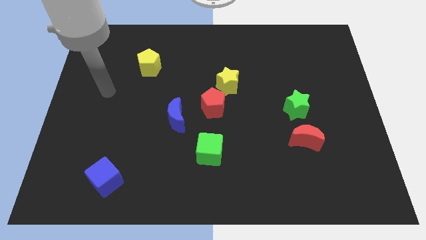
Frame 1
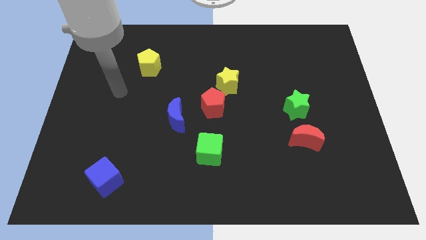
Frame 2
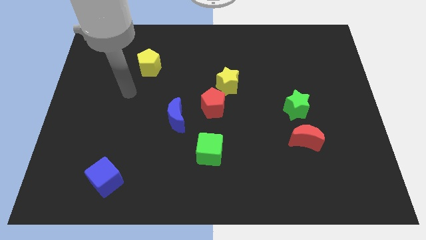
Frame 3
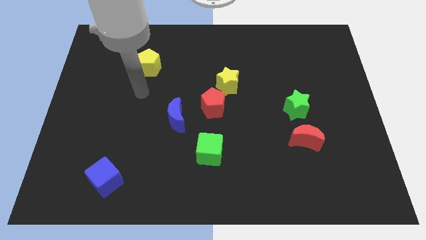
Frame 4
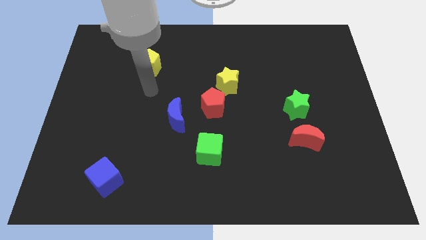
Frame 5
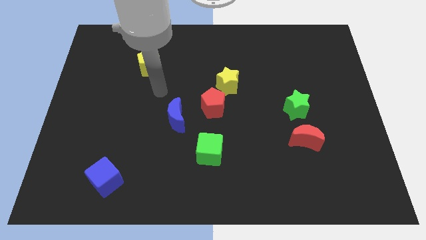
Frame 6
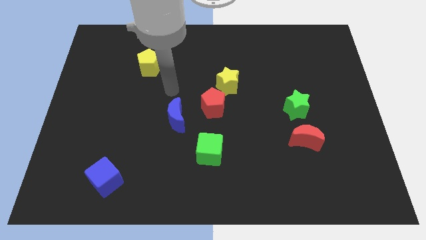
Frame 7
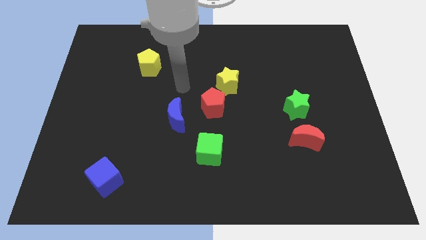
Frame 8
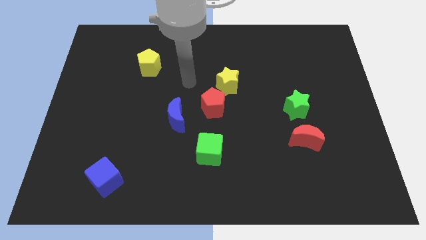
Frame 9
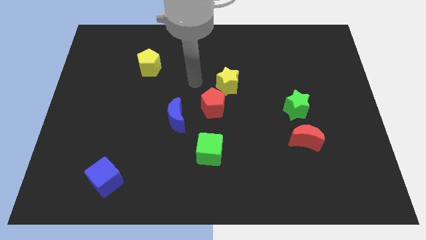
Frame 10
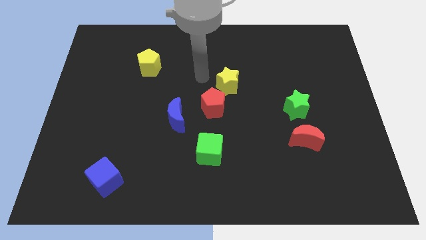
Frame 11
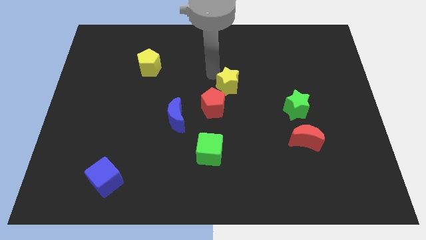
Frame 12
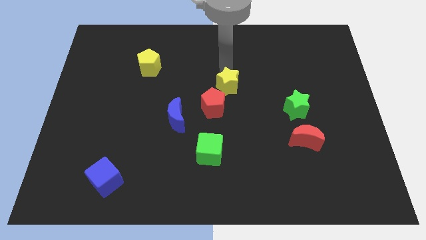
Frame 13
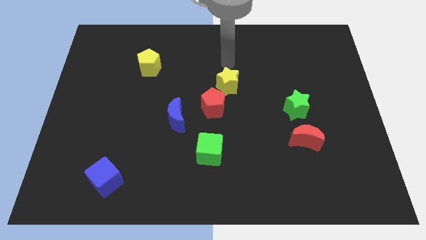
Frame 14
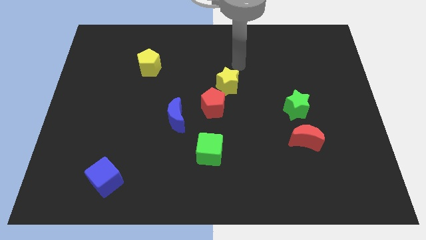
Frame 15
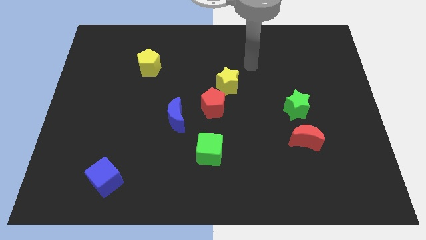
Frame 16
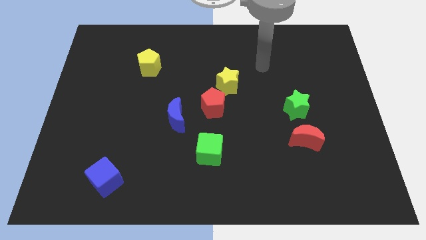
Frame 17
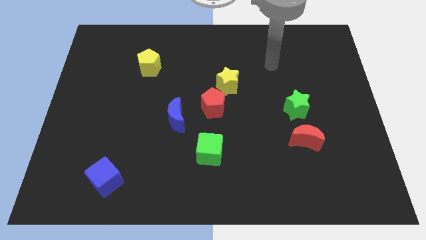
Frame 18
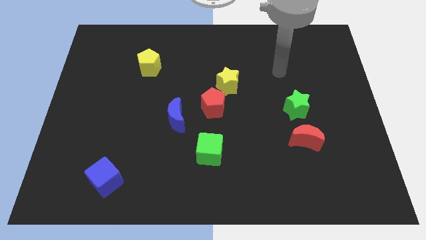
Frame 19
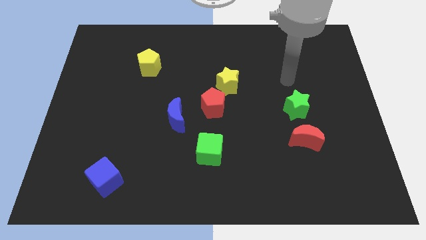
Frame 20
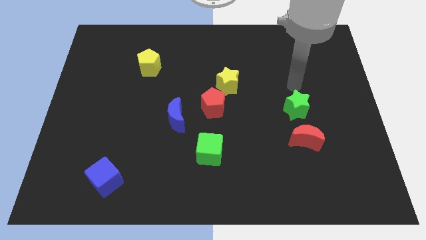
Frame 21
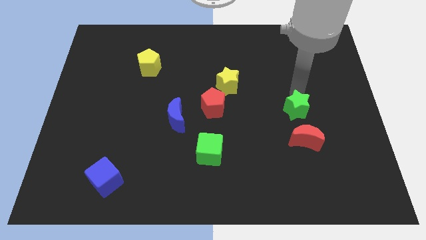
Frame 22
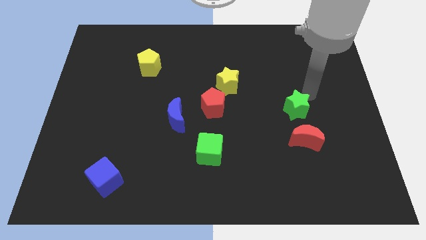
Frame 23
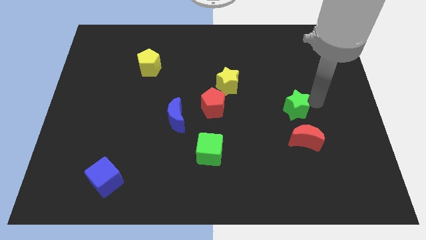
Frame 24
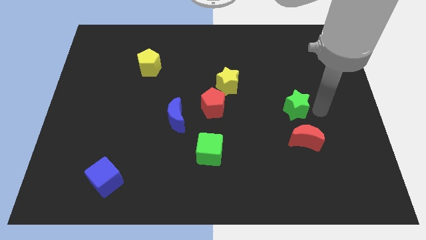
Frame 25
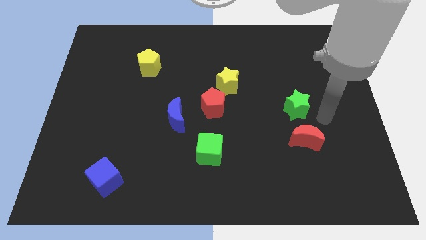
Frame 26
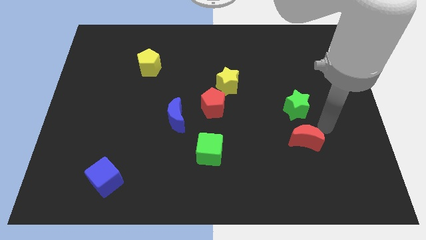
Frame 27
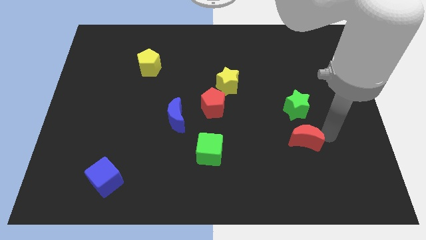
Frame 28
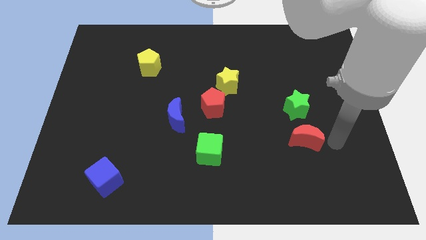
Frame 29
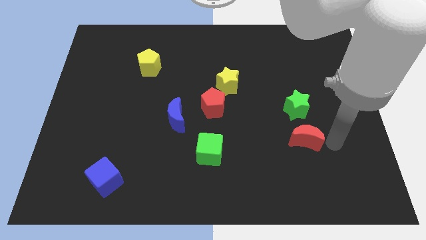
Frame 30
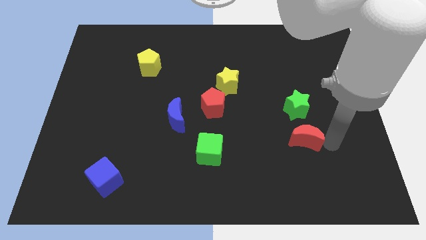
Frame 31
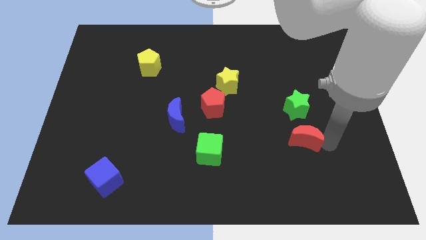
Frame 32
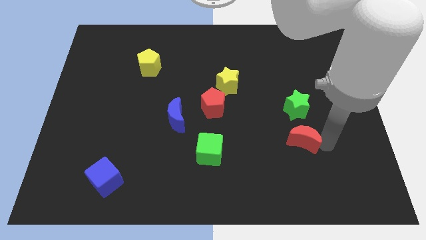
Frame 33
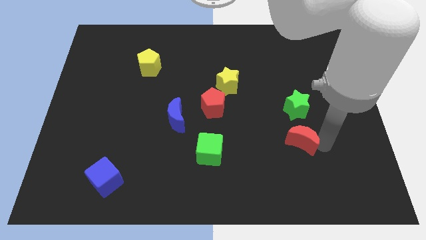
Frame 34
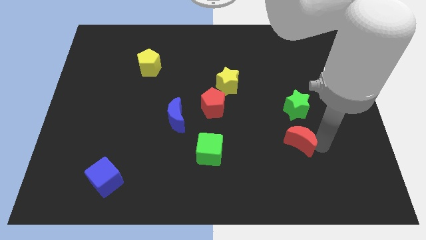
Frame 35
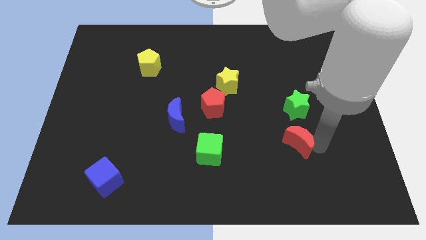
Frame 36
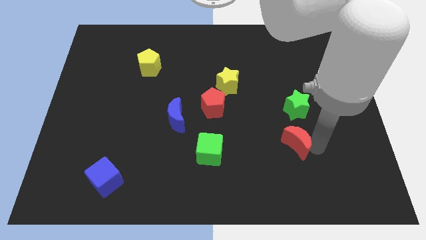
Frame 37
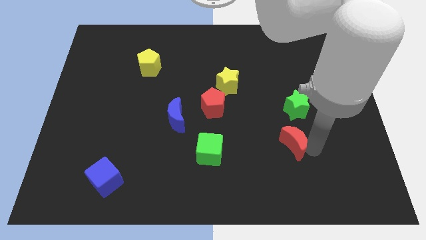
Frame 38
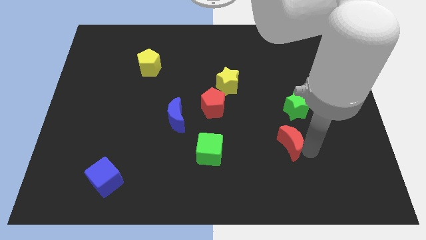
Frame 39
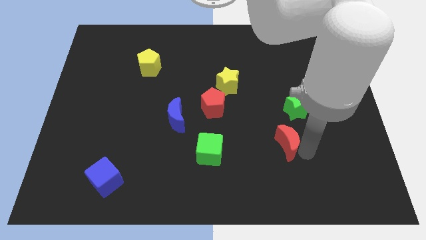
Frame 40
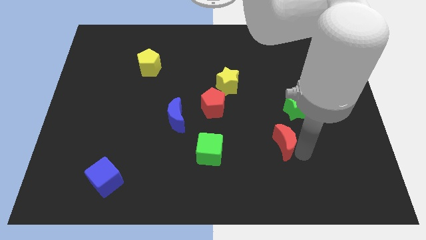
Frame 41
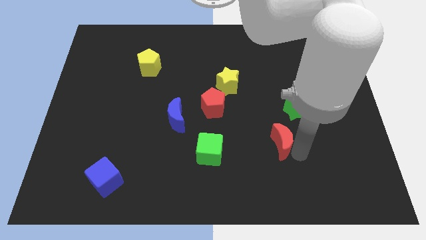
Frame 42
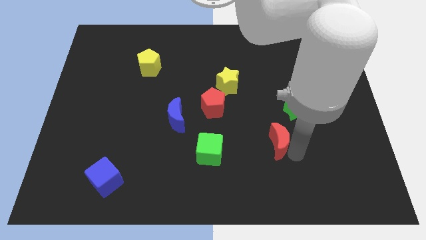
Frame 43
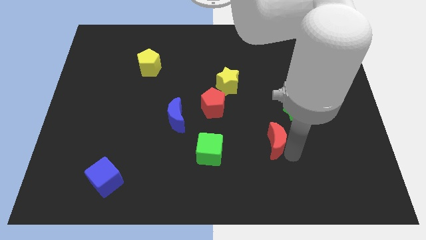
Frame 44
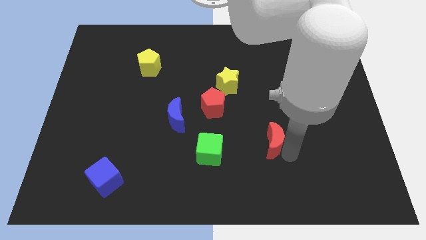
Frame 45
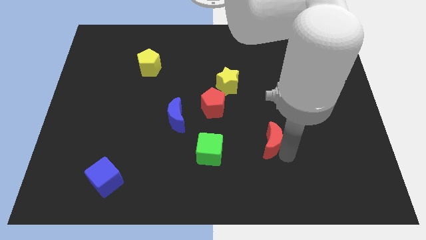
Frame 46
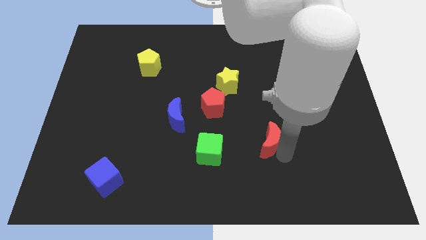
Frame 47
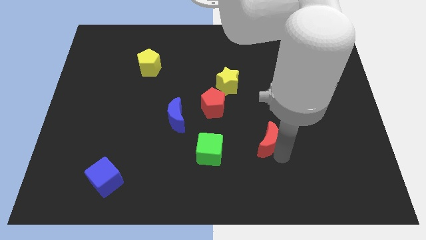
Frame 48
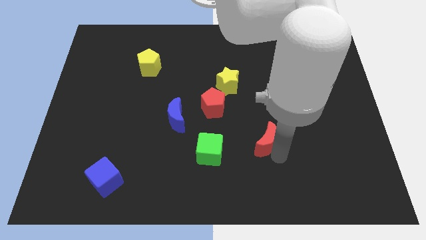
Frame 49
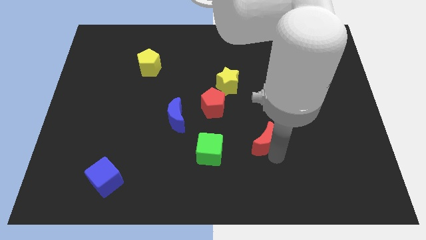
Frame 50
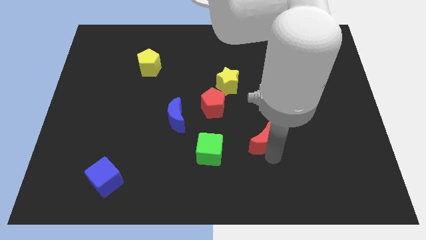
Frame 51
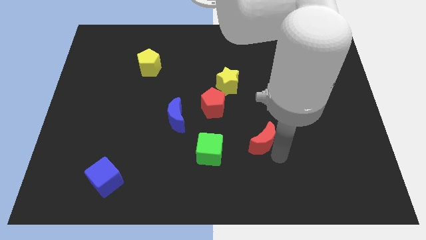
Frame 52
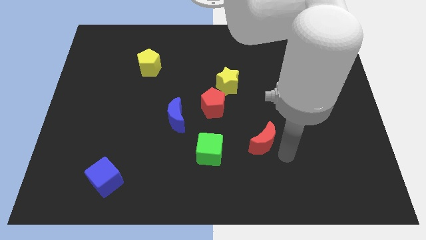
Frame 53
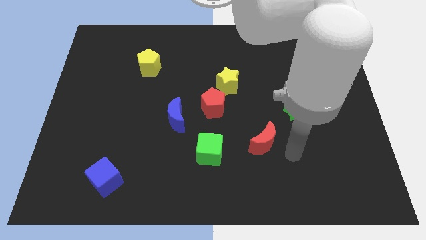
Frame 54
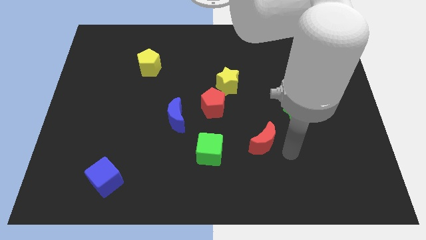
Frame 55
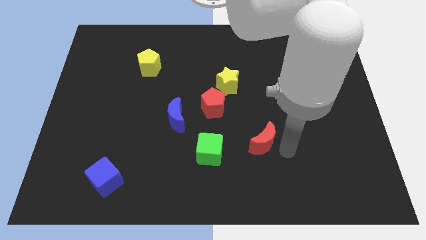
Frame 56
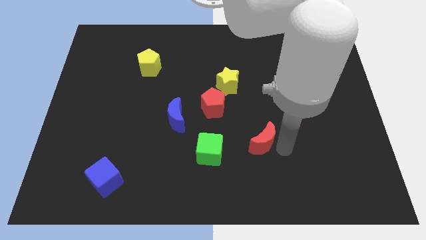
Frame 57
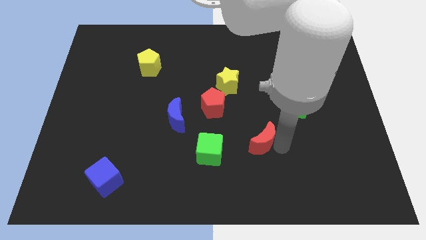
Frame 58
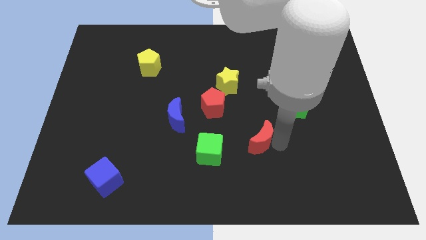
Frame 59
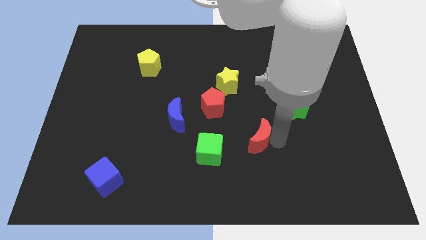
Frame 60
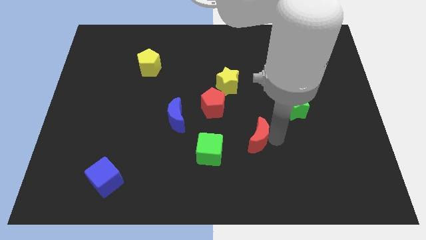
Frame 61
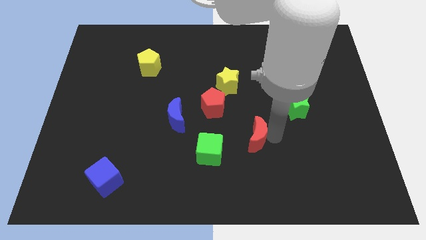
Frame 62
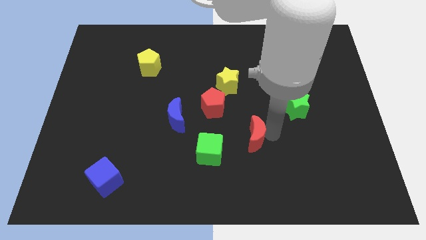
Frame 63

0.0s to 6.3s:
move the red moon diagonally up and to the right of the green cube

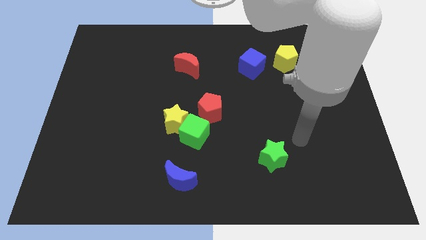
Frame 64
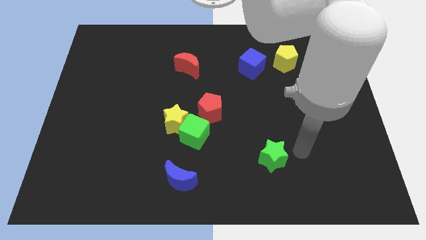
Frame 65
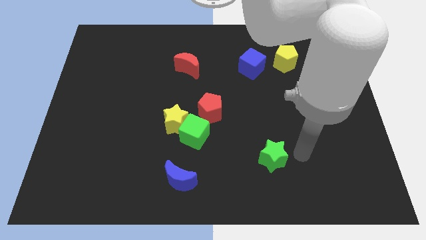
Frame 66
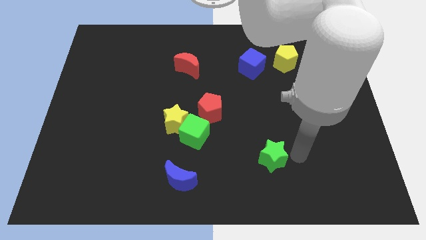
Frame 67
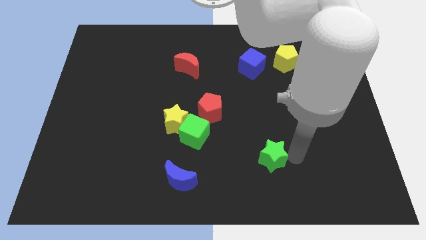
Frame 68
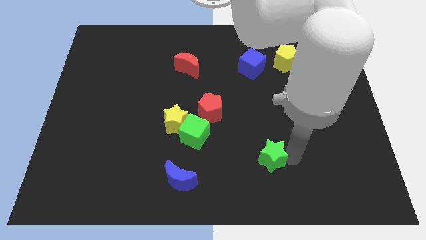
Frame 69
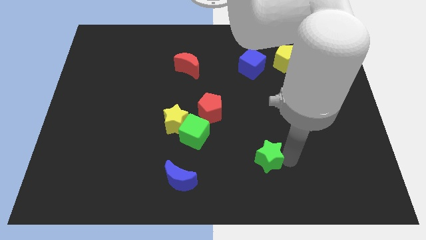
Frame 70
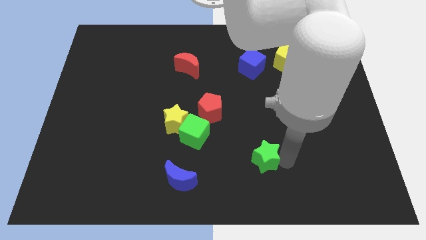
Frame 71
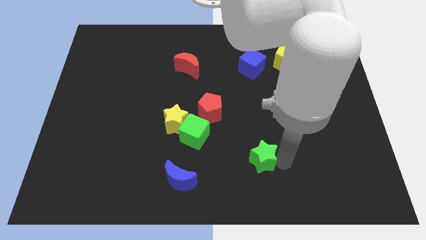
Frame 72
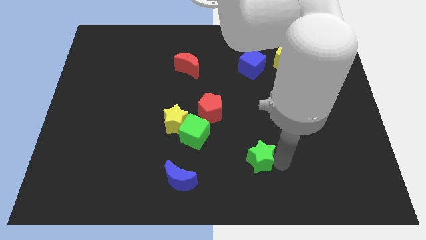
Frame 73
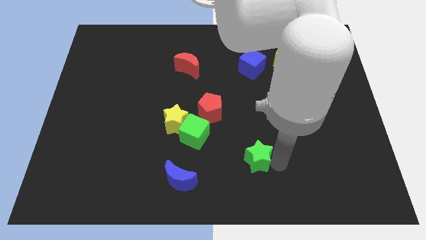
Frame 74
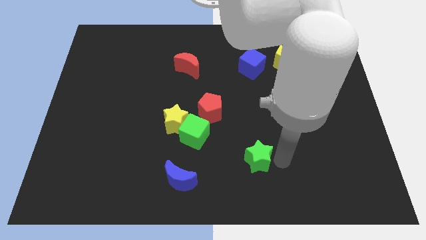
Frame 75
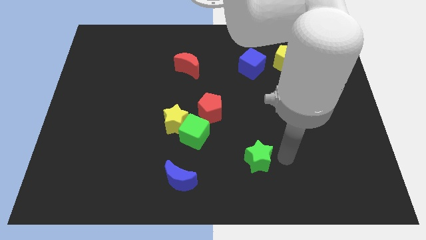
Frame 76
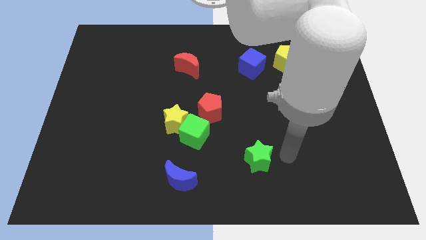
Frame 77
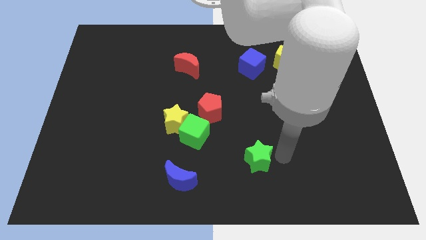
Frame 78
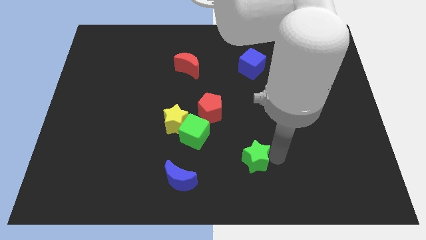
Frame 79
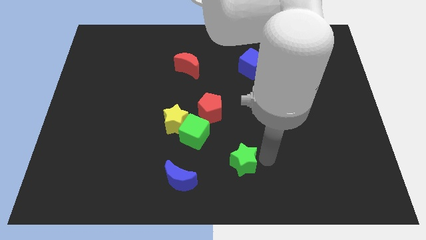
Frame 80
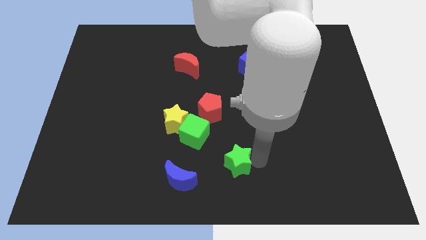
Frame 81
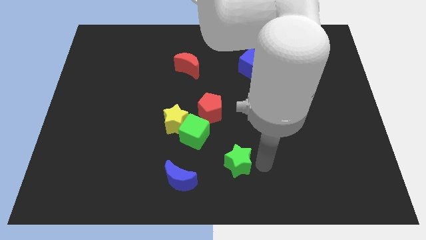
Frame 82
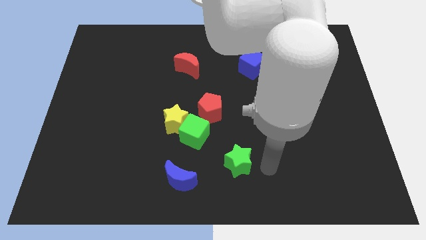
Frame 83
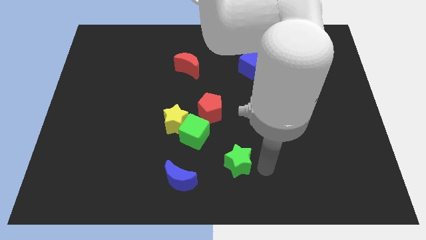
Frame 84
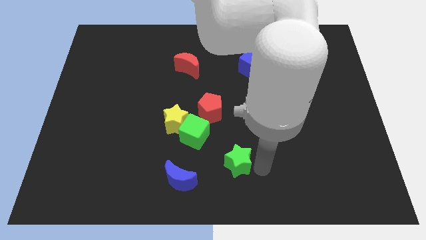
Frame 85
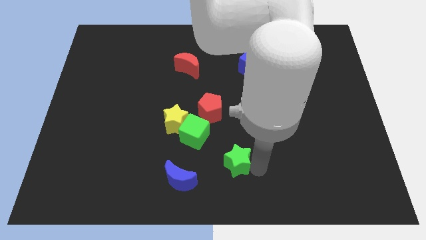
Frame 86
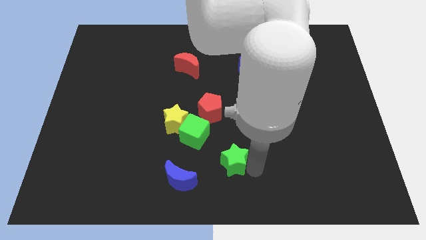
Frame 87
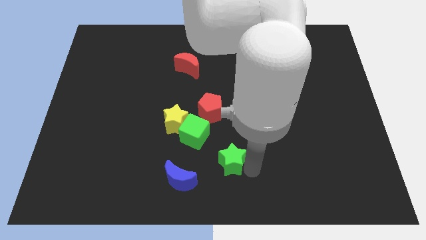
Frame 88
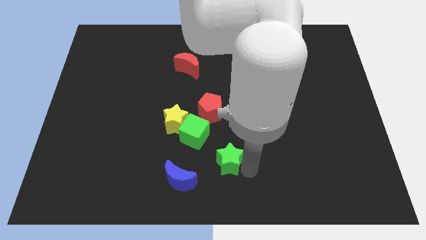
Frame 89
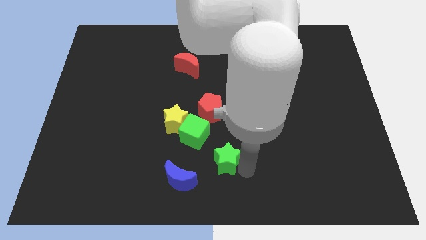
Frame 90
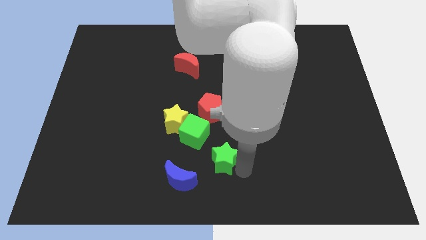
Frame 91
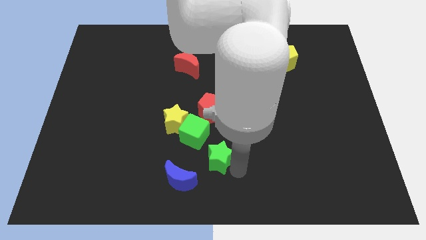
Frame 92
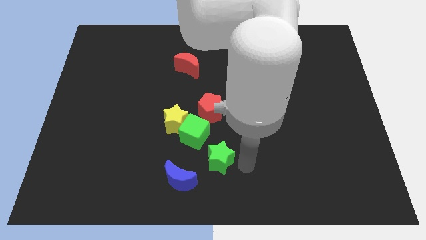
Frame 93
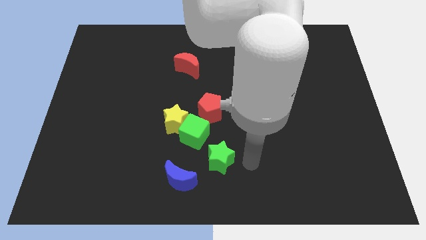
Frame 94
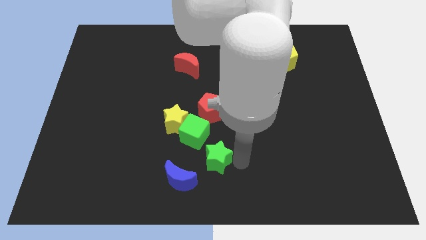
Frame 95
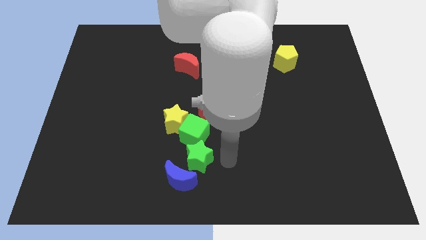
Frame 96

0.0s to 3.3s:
put the green star to the bottom left of the green cube
